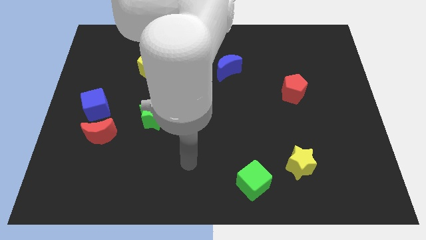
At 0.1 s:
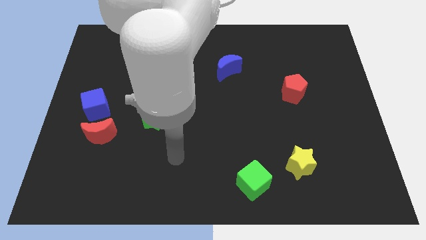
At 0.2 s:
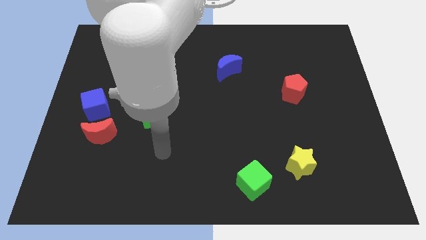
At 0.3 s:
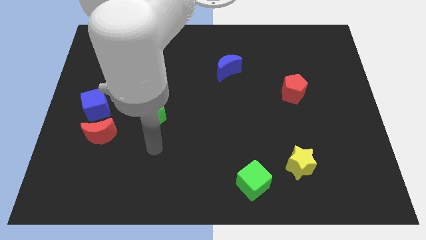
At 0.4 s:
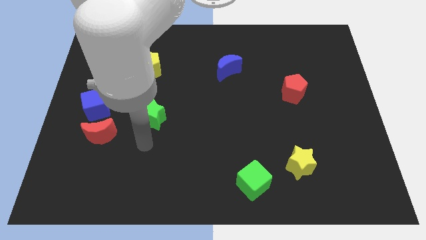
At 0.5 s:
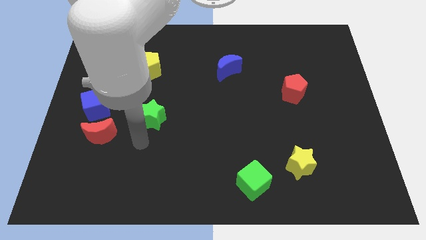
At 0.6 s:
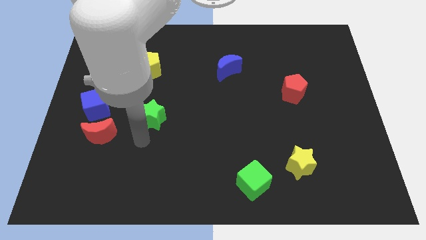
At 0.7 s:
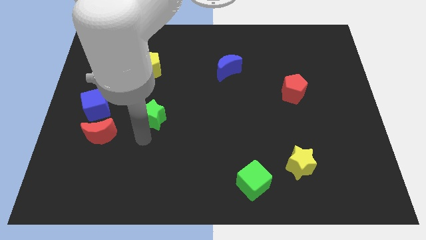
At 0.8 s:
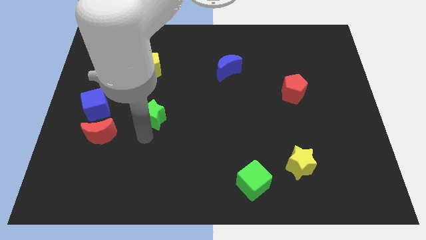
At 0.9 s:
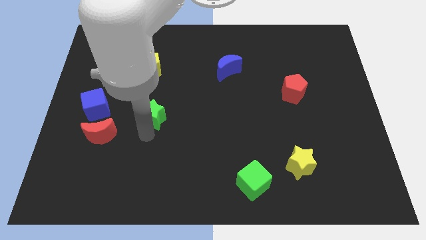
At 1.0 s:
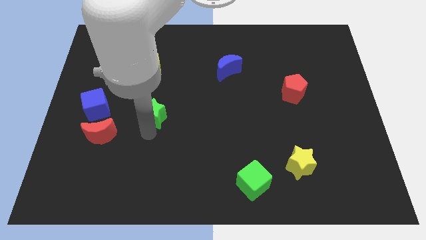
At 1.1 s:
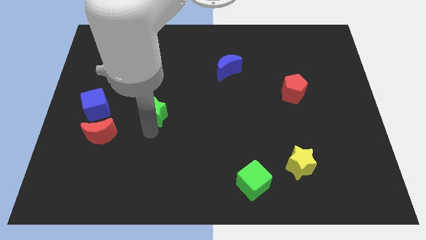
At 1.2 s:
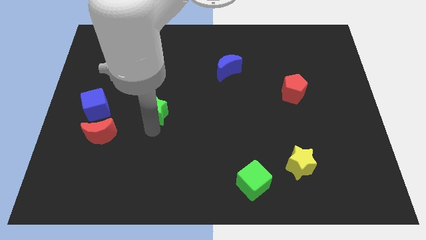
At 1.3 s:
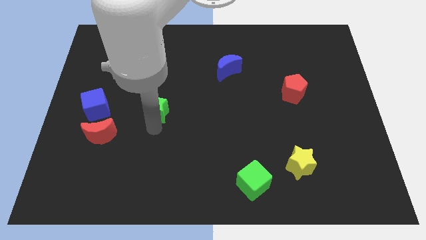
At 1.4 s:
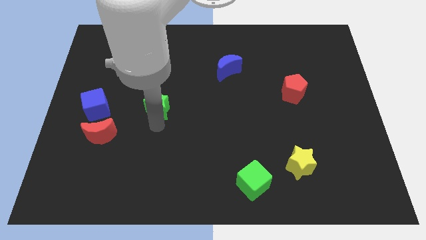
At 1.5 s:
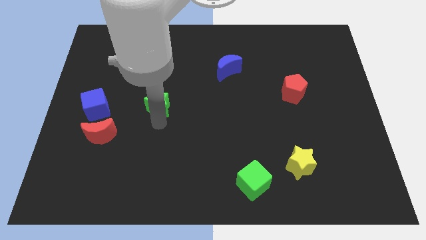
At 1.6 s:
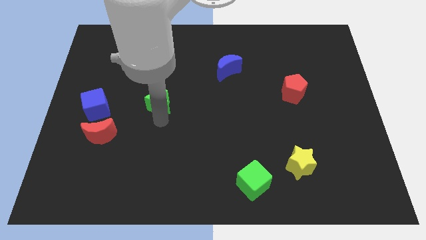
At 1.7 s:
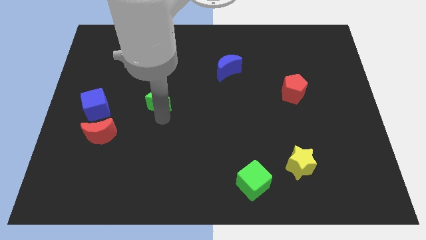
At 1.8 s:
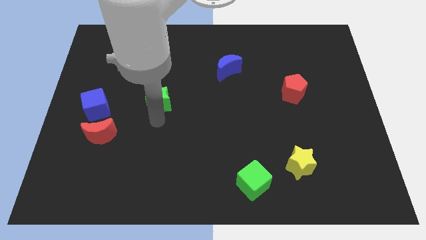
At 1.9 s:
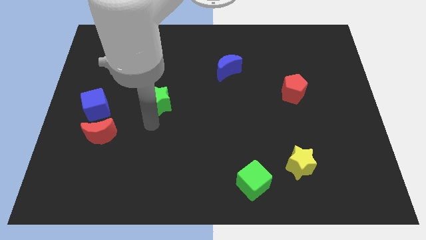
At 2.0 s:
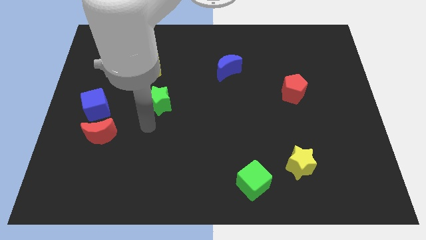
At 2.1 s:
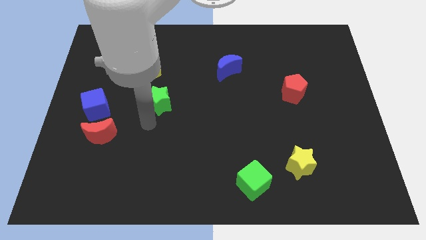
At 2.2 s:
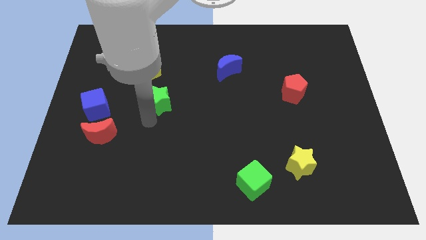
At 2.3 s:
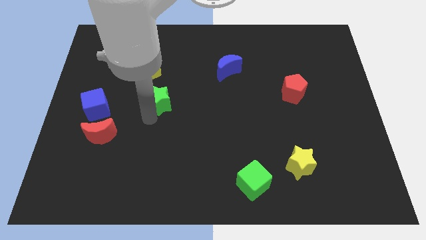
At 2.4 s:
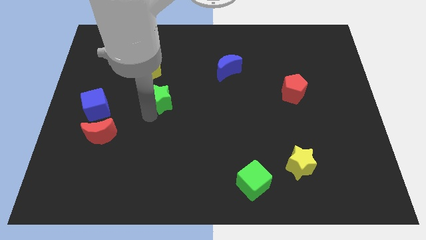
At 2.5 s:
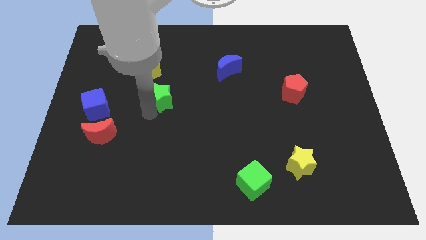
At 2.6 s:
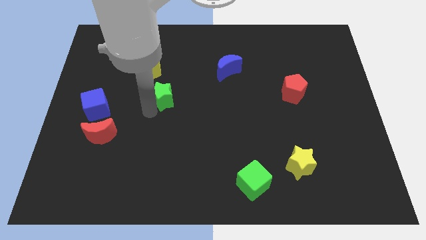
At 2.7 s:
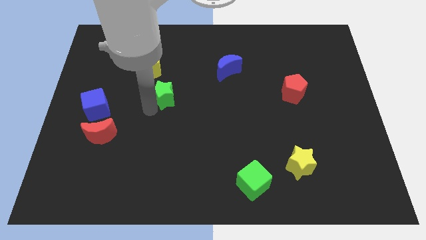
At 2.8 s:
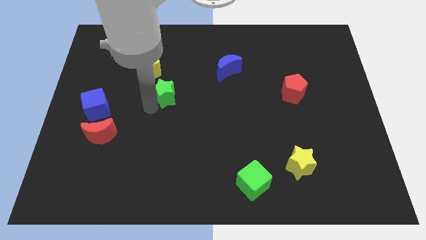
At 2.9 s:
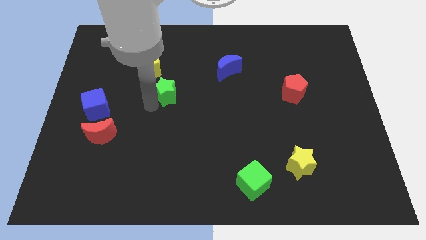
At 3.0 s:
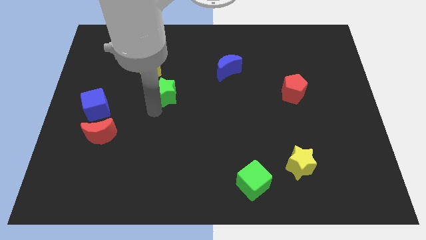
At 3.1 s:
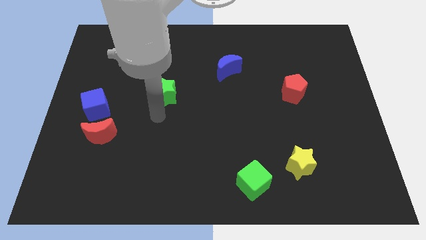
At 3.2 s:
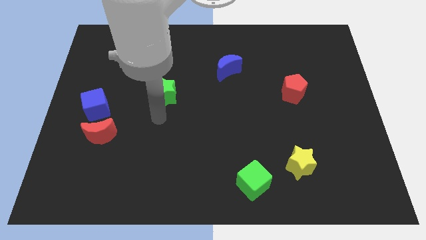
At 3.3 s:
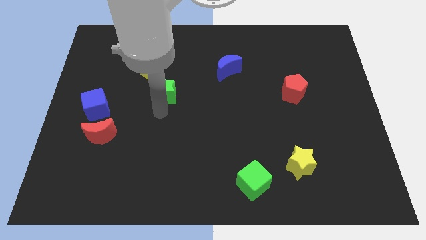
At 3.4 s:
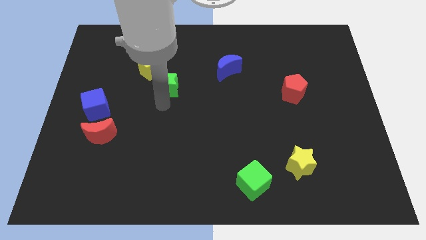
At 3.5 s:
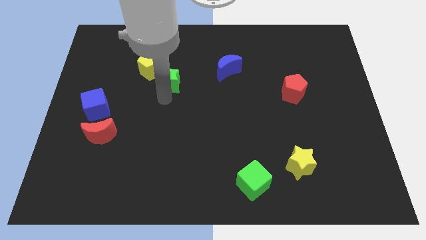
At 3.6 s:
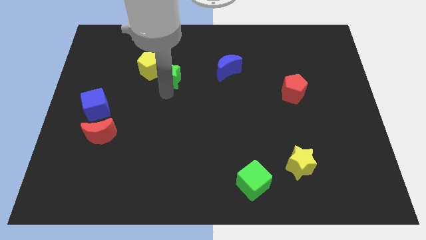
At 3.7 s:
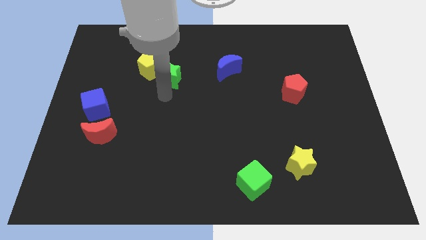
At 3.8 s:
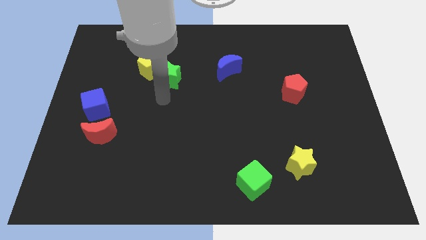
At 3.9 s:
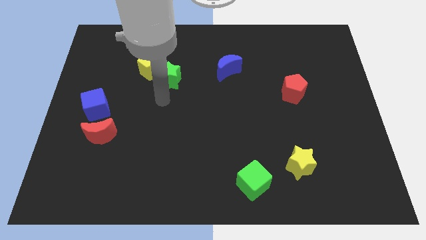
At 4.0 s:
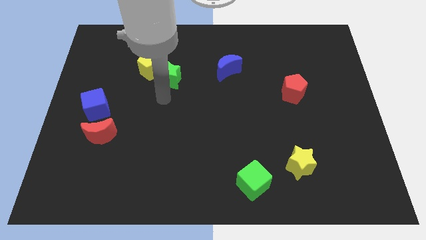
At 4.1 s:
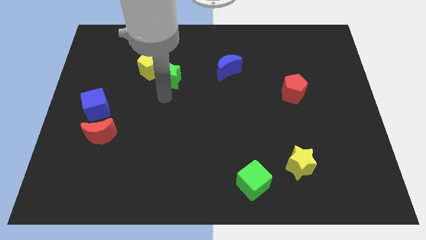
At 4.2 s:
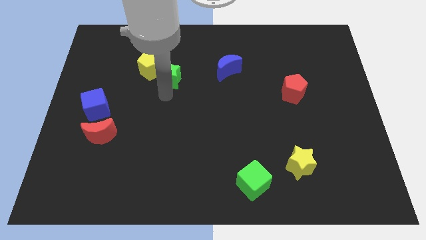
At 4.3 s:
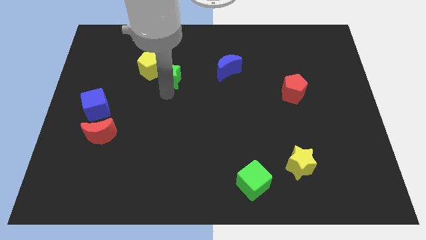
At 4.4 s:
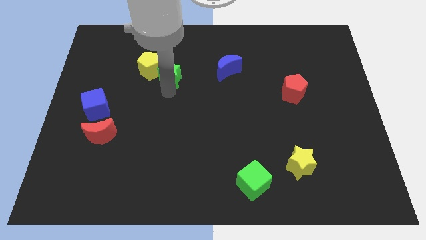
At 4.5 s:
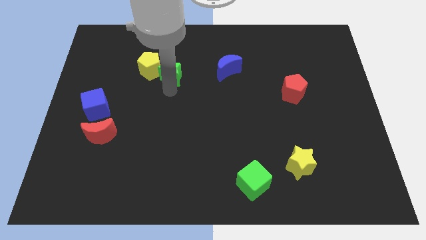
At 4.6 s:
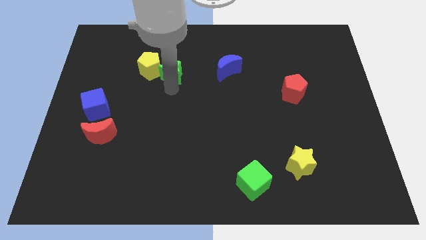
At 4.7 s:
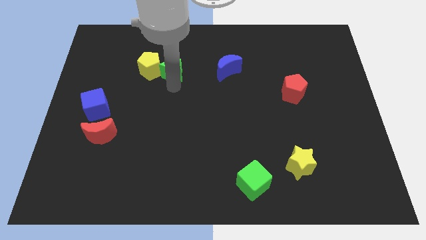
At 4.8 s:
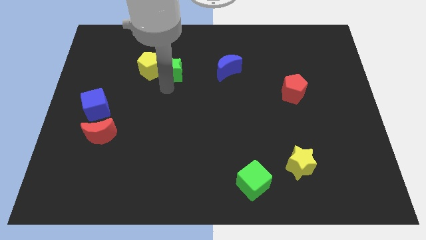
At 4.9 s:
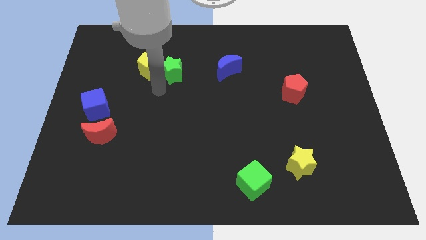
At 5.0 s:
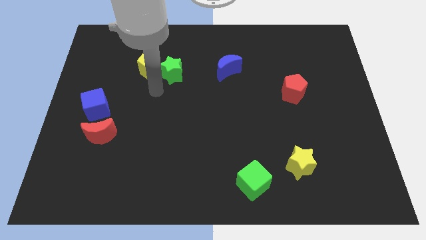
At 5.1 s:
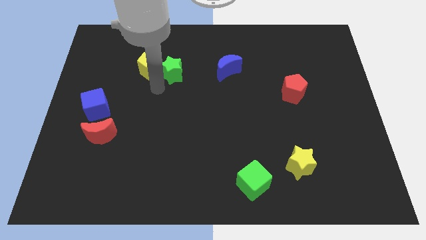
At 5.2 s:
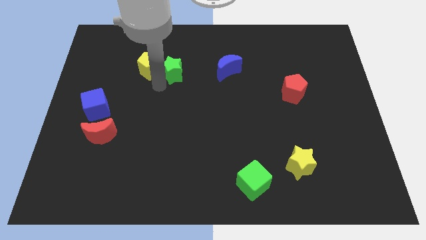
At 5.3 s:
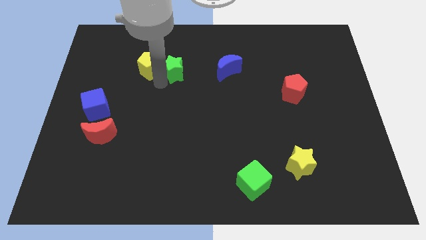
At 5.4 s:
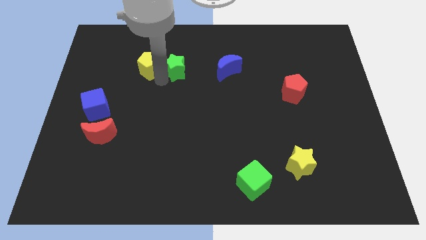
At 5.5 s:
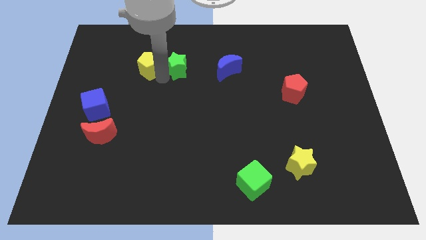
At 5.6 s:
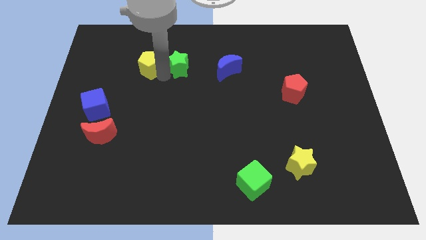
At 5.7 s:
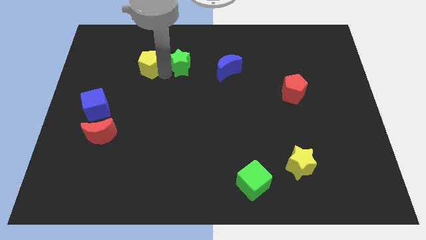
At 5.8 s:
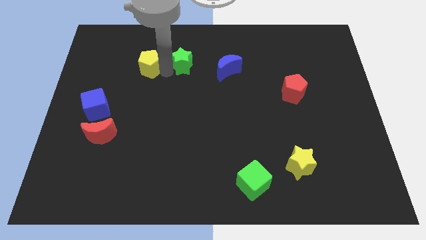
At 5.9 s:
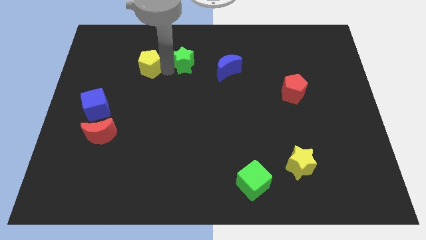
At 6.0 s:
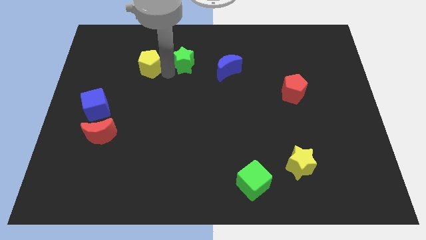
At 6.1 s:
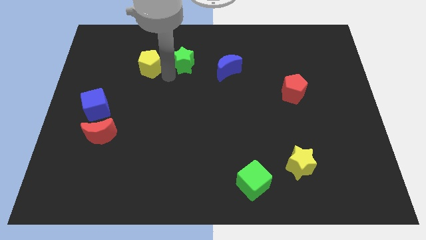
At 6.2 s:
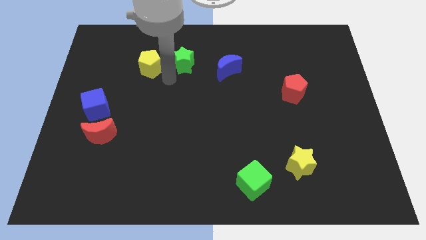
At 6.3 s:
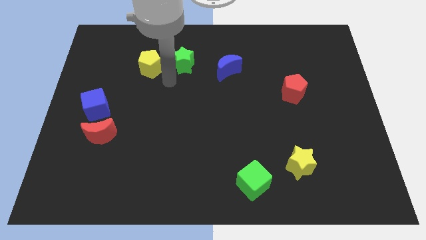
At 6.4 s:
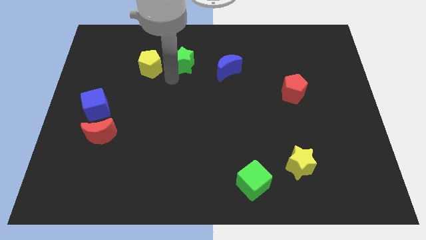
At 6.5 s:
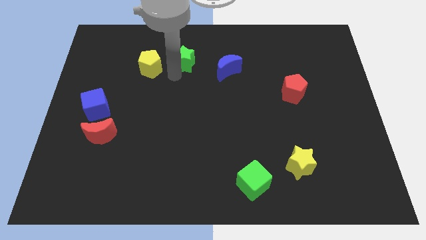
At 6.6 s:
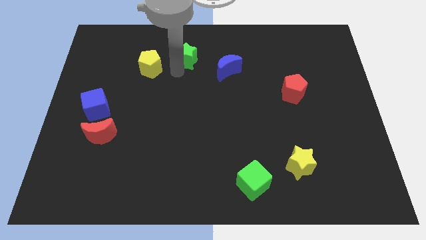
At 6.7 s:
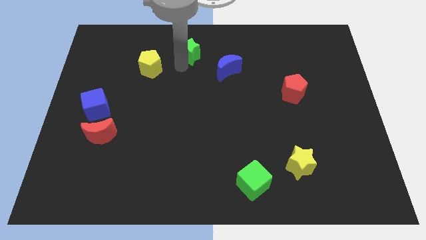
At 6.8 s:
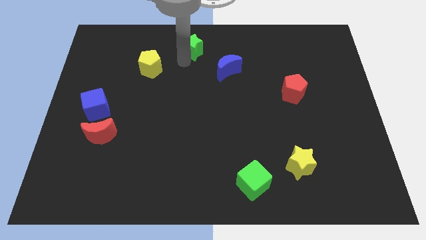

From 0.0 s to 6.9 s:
move the green star to the top side
